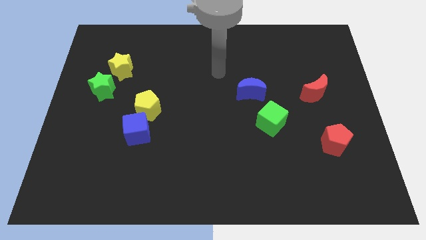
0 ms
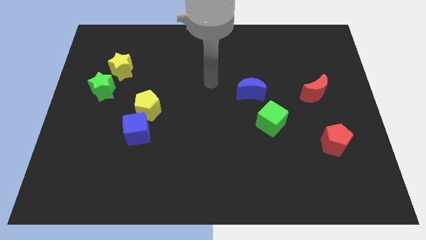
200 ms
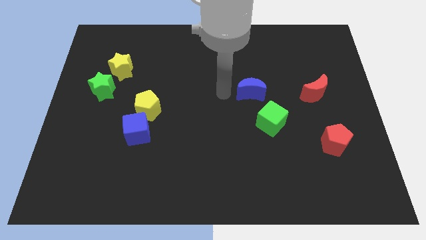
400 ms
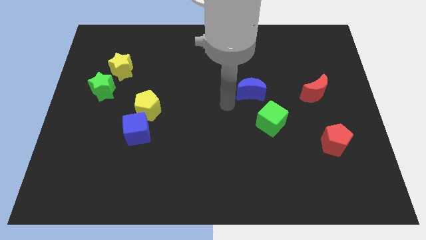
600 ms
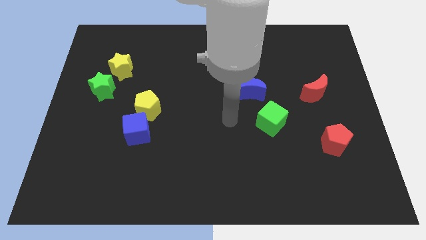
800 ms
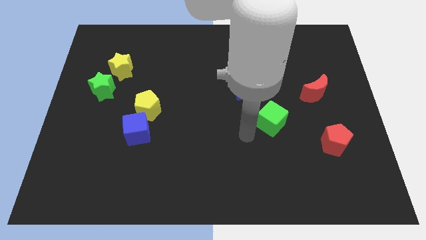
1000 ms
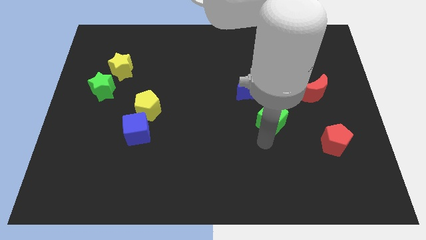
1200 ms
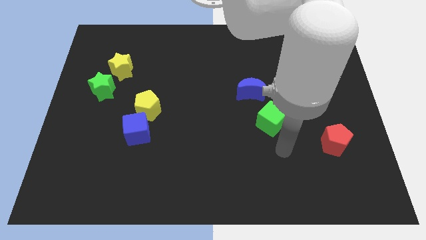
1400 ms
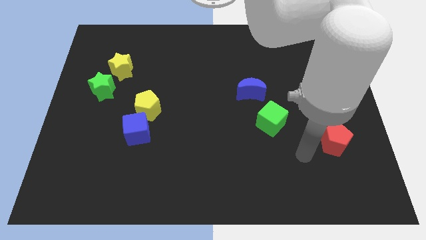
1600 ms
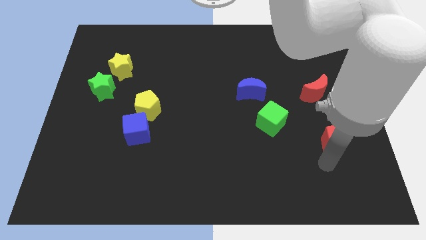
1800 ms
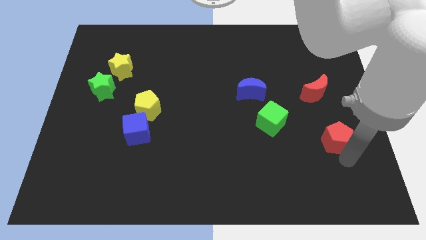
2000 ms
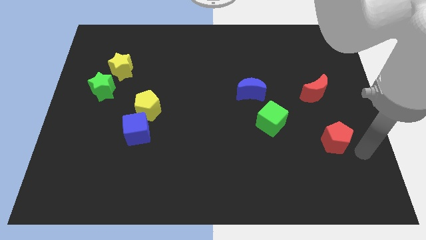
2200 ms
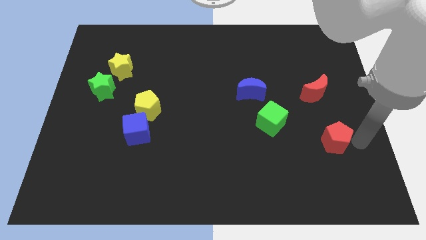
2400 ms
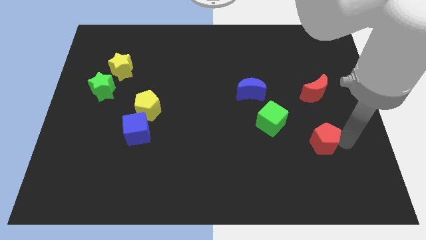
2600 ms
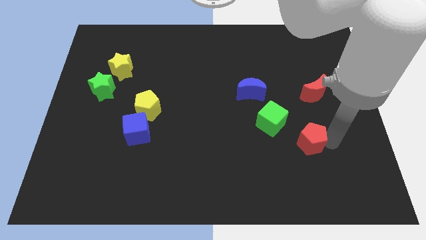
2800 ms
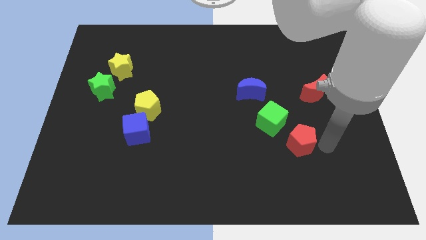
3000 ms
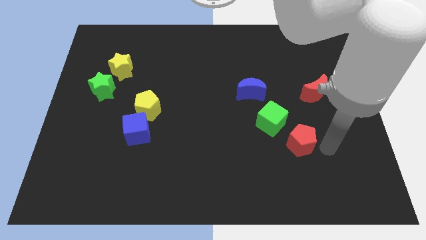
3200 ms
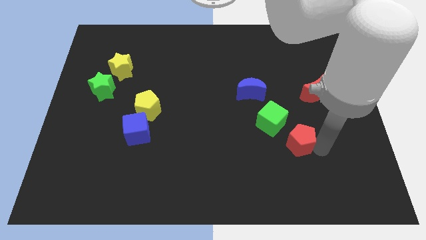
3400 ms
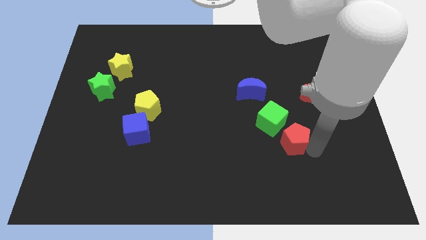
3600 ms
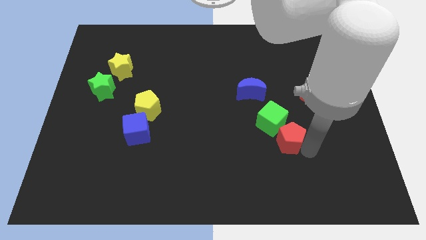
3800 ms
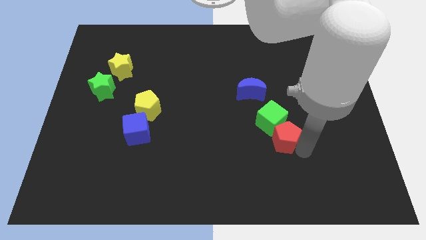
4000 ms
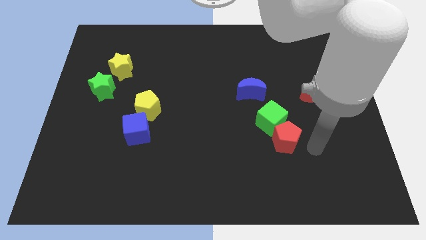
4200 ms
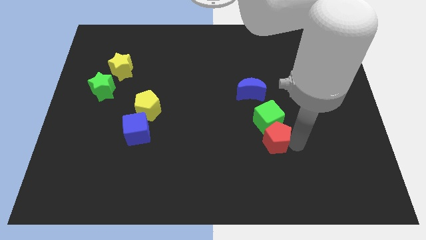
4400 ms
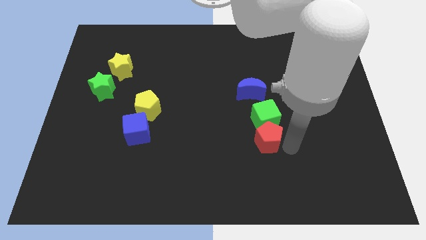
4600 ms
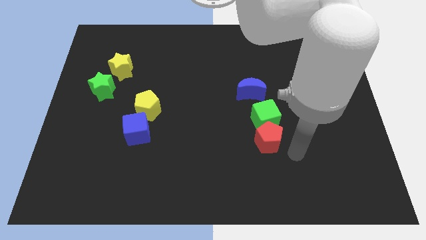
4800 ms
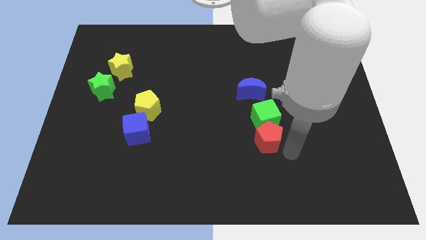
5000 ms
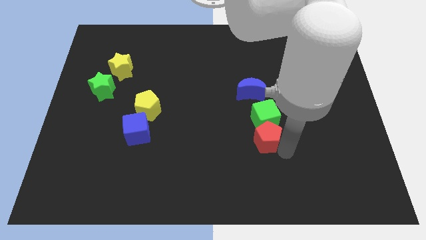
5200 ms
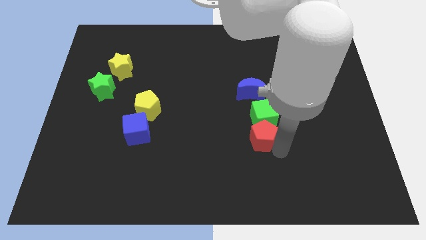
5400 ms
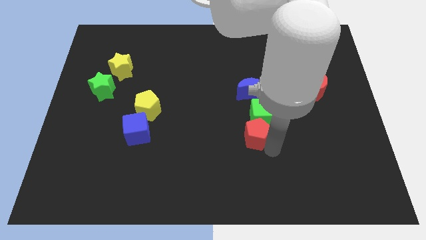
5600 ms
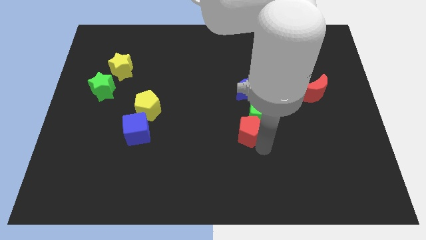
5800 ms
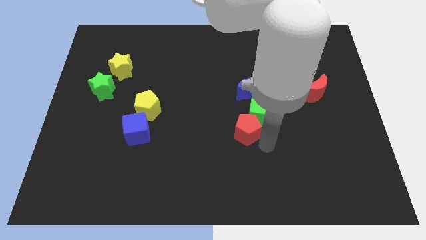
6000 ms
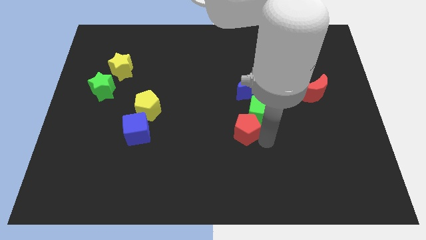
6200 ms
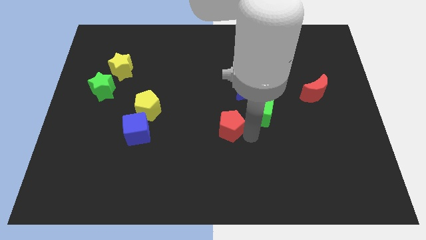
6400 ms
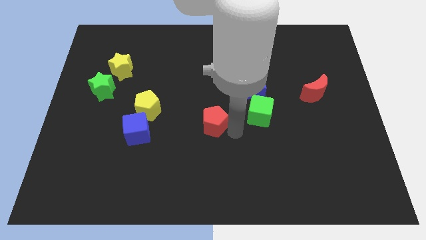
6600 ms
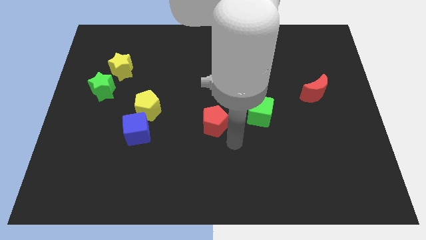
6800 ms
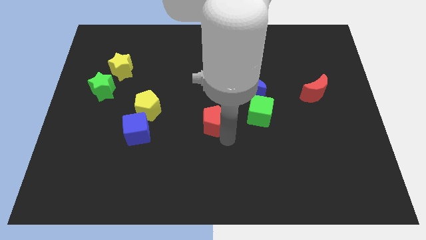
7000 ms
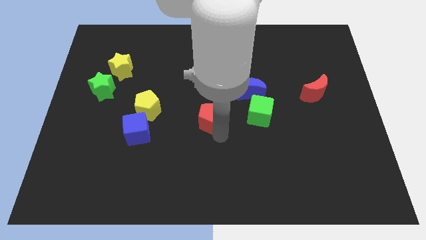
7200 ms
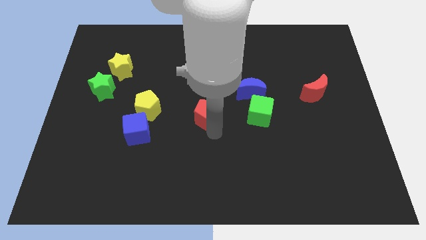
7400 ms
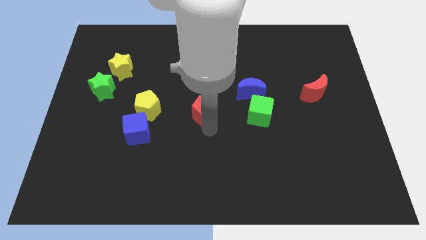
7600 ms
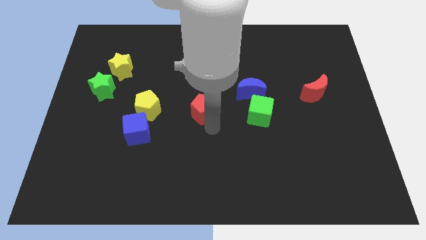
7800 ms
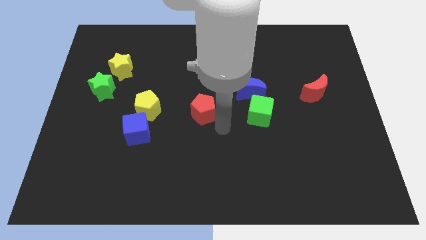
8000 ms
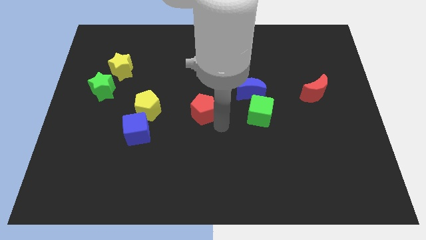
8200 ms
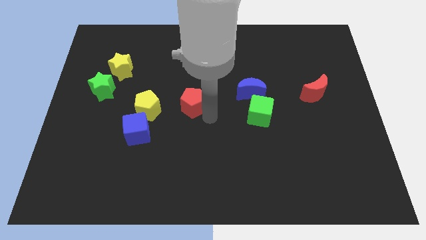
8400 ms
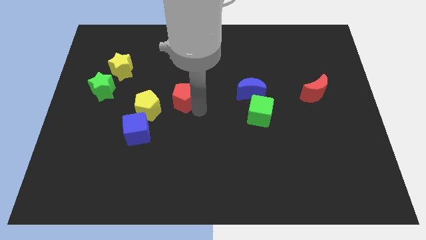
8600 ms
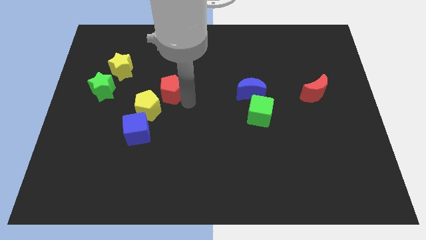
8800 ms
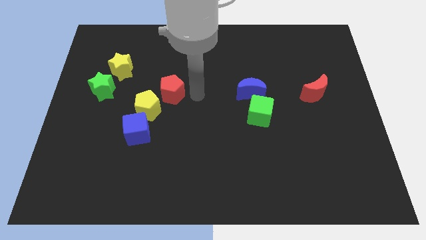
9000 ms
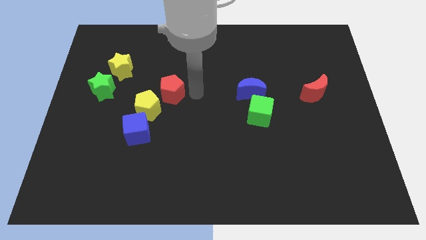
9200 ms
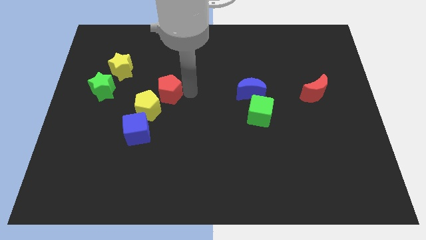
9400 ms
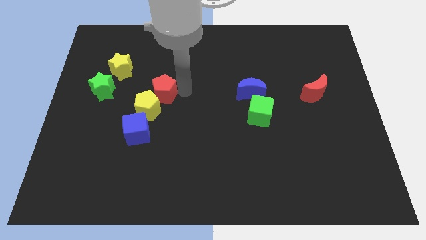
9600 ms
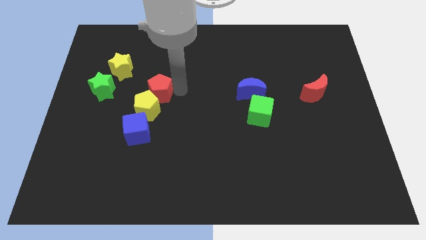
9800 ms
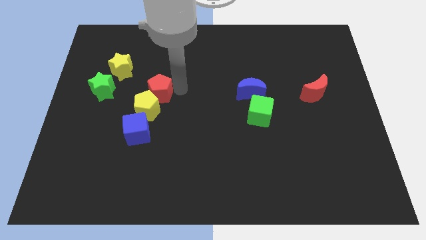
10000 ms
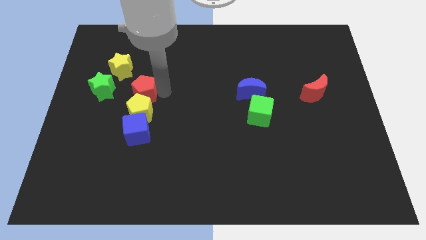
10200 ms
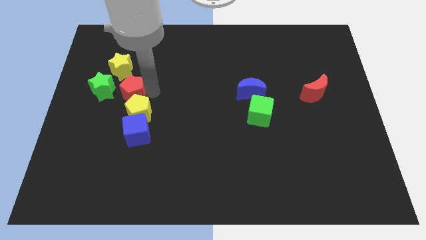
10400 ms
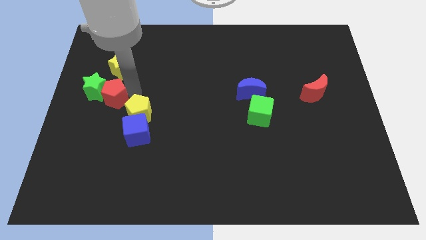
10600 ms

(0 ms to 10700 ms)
move the red pentagon to the left of the yellow pentagon

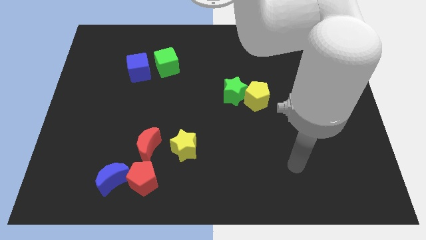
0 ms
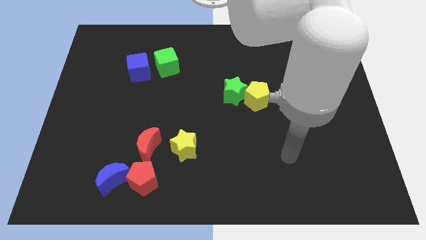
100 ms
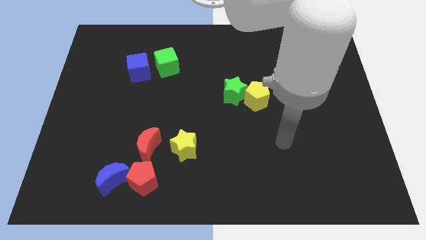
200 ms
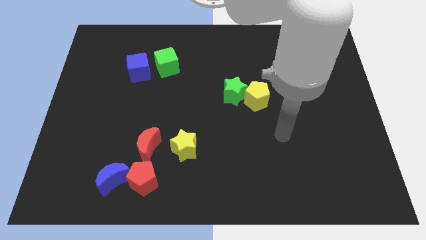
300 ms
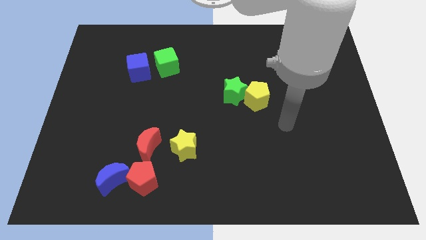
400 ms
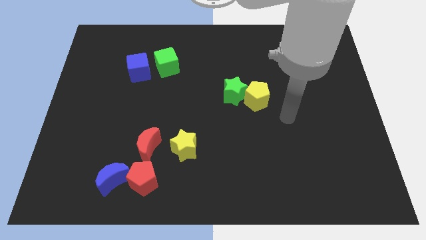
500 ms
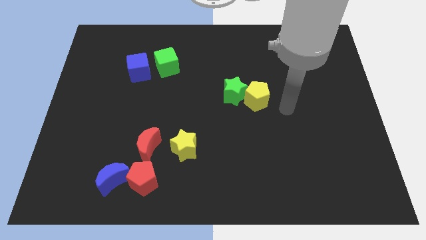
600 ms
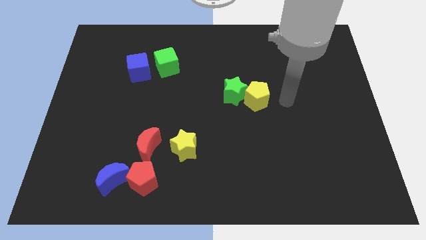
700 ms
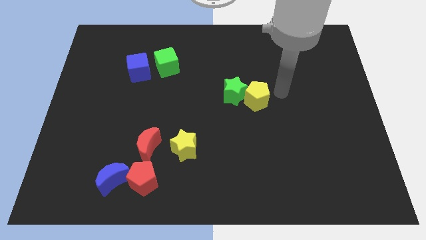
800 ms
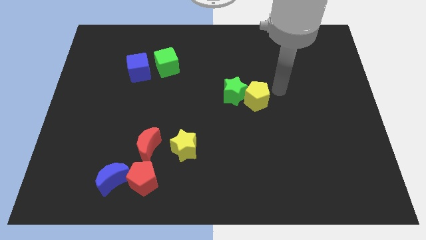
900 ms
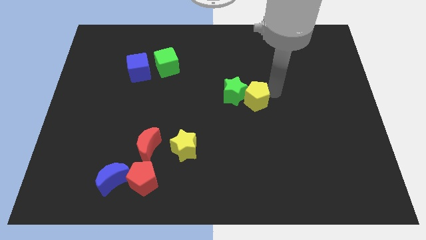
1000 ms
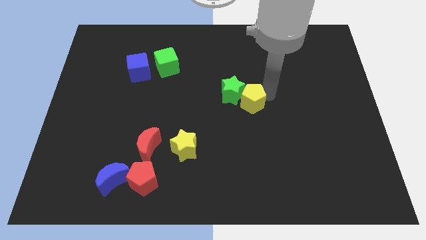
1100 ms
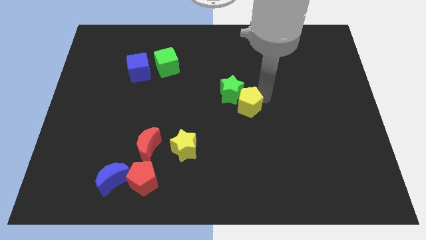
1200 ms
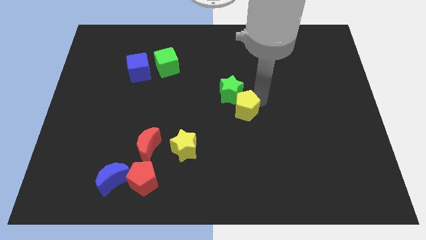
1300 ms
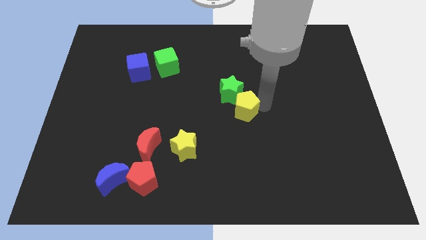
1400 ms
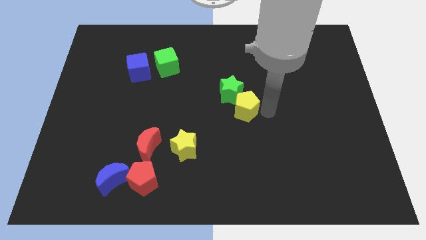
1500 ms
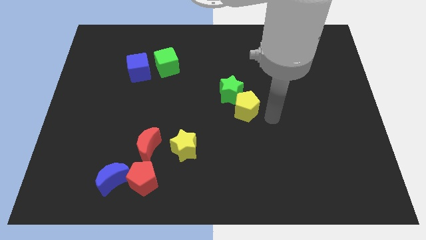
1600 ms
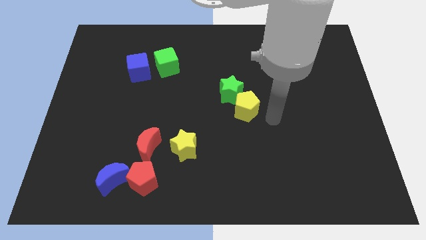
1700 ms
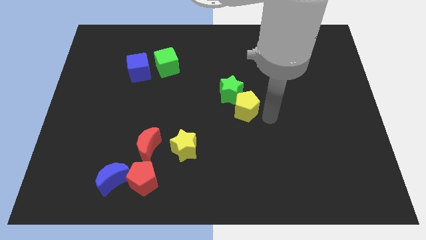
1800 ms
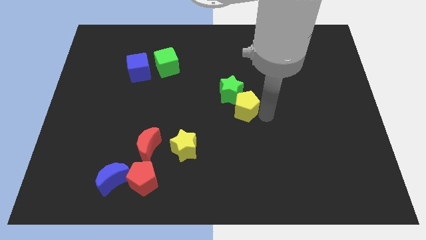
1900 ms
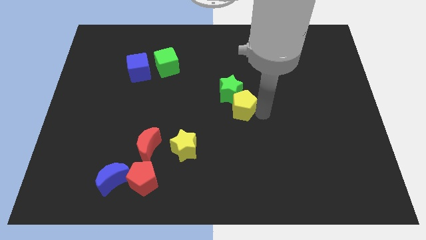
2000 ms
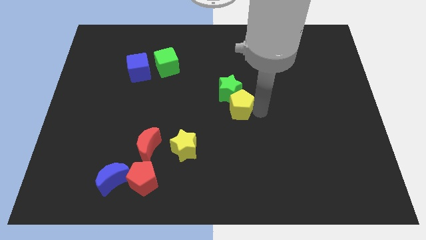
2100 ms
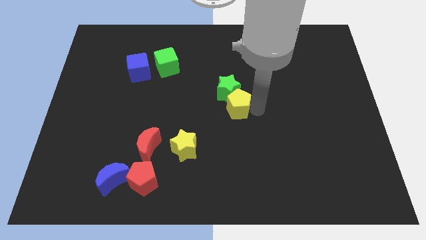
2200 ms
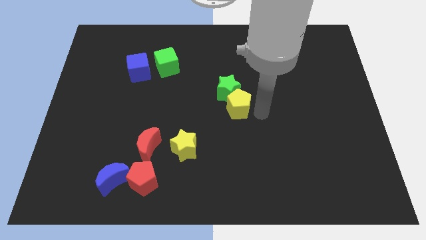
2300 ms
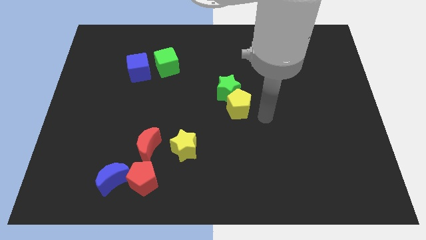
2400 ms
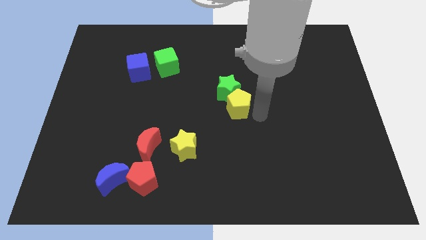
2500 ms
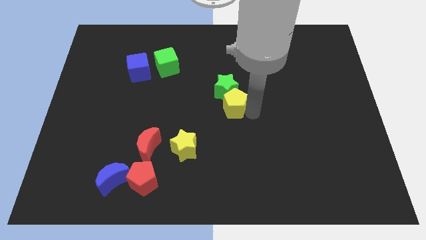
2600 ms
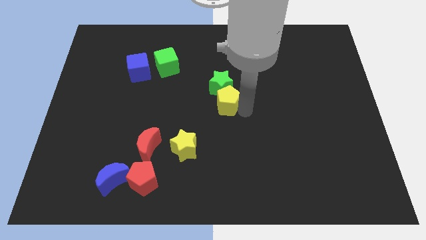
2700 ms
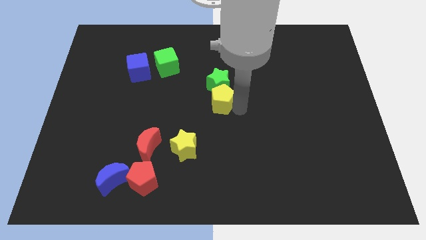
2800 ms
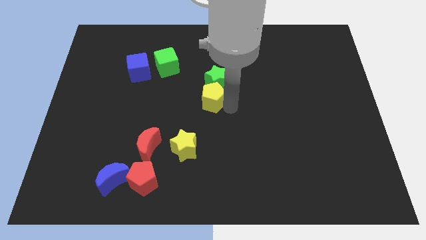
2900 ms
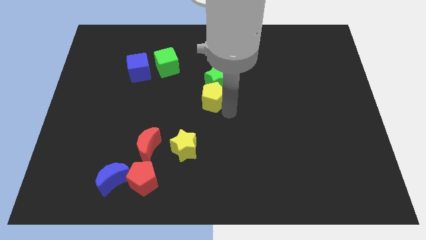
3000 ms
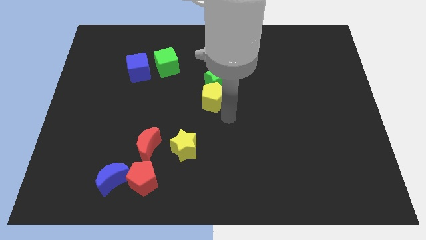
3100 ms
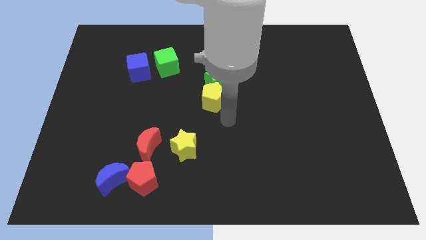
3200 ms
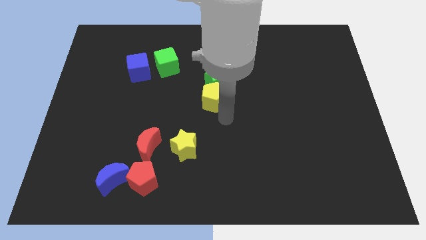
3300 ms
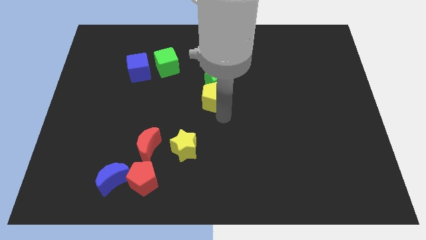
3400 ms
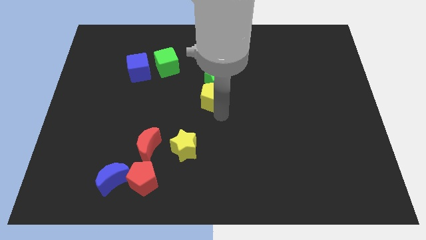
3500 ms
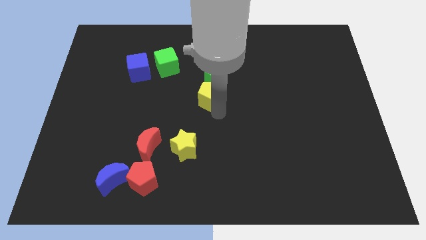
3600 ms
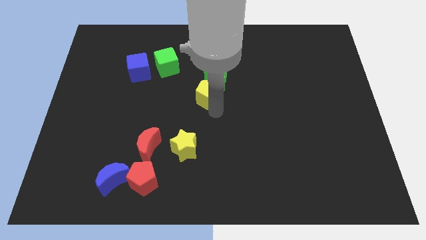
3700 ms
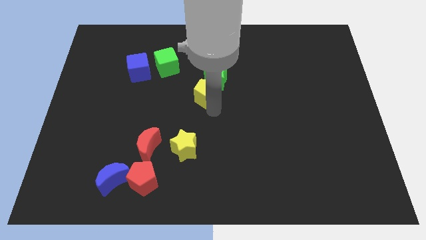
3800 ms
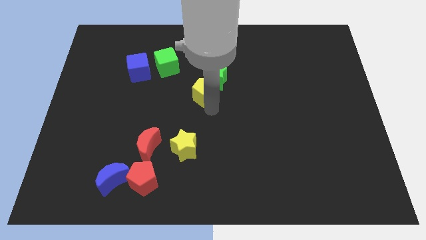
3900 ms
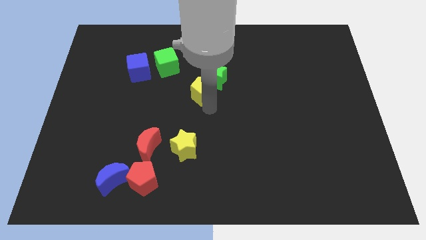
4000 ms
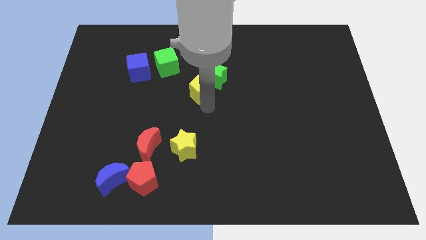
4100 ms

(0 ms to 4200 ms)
put the yellow pentagon diagonally down and to the right of the green cube
